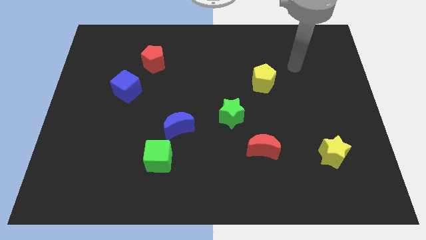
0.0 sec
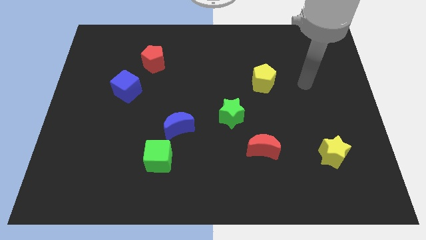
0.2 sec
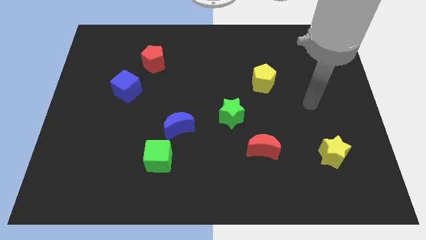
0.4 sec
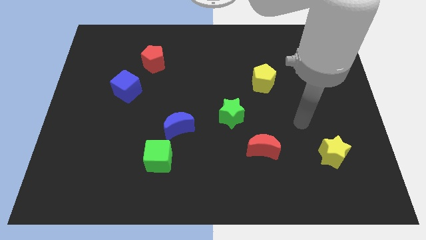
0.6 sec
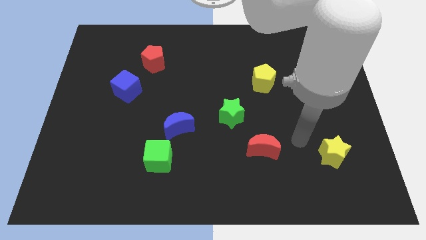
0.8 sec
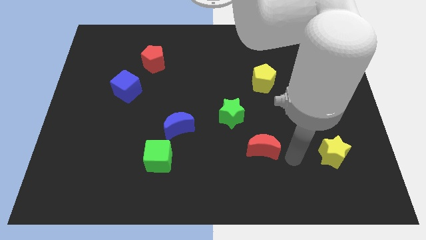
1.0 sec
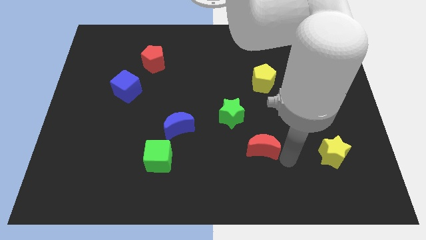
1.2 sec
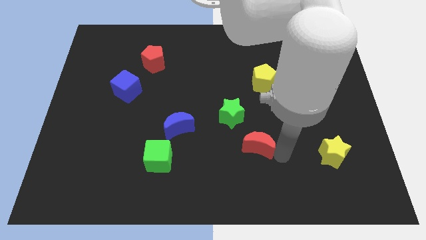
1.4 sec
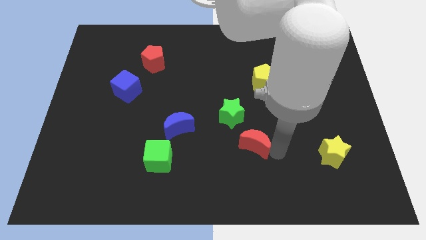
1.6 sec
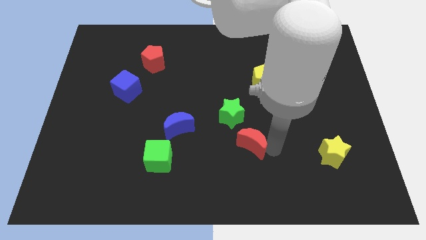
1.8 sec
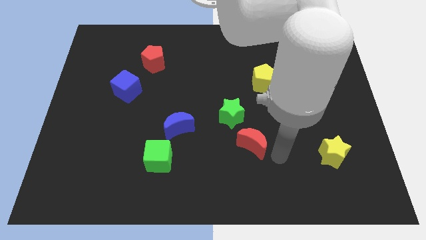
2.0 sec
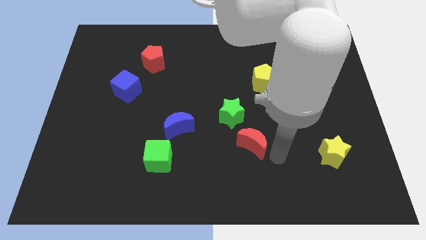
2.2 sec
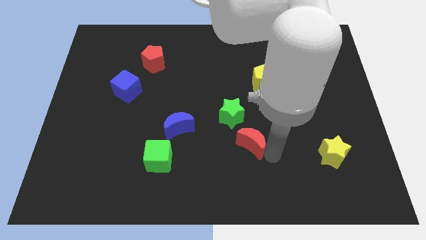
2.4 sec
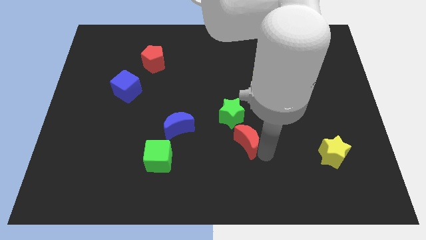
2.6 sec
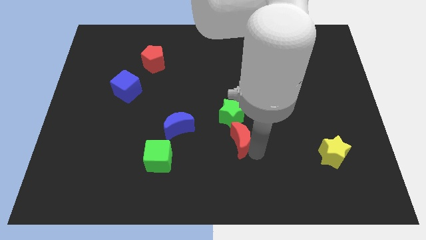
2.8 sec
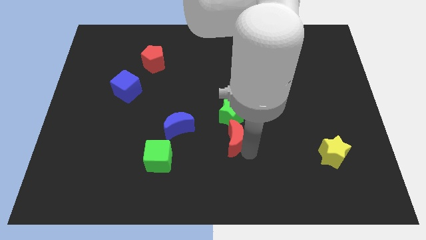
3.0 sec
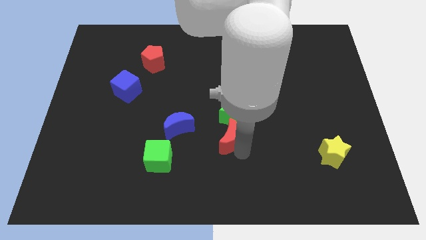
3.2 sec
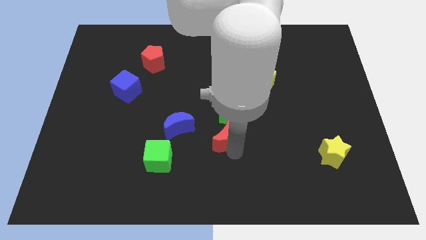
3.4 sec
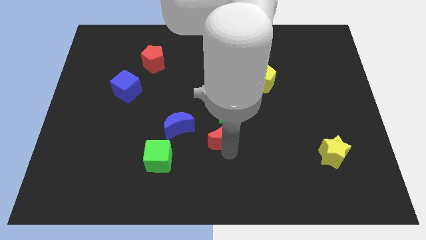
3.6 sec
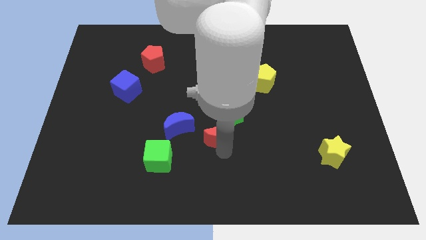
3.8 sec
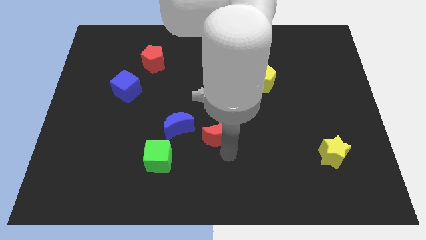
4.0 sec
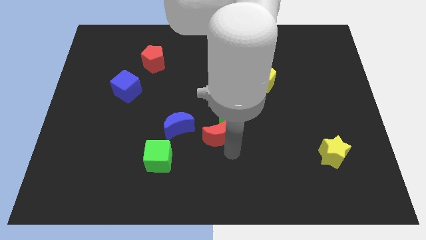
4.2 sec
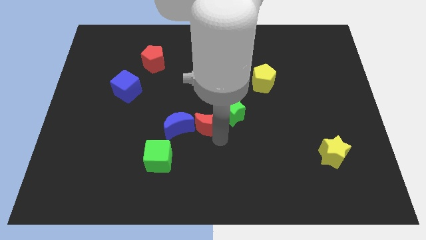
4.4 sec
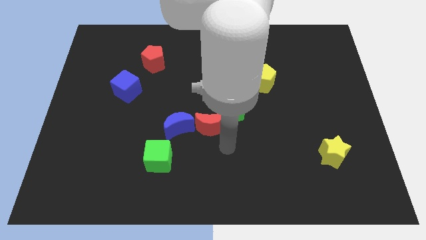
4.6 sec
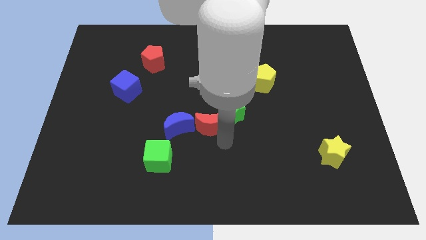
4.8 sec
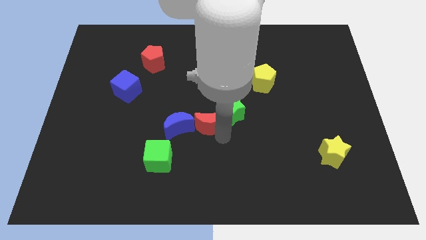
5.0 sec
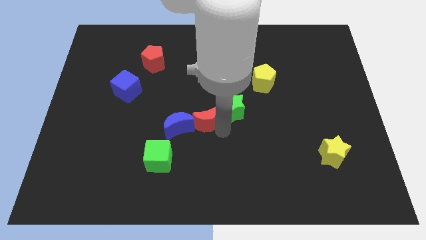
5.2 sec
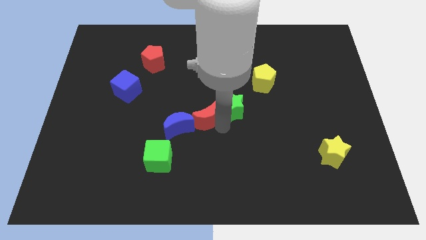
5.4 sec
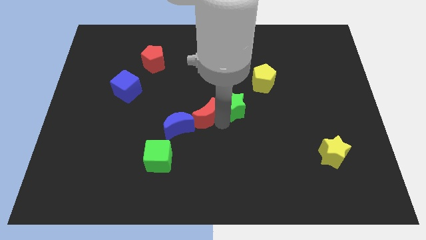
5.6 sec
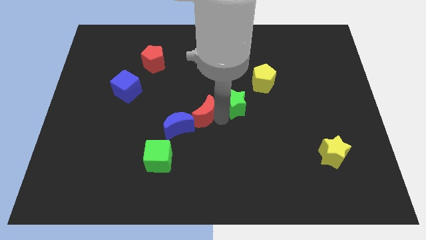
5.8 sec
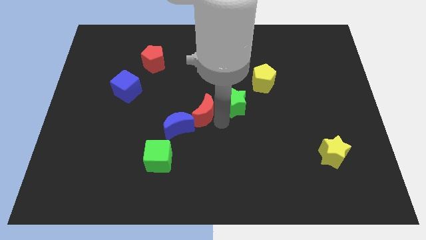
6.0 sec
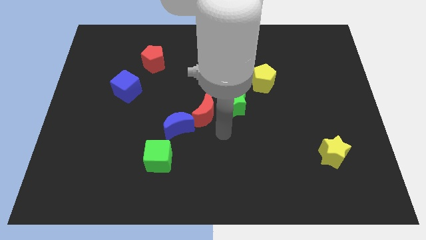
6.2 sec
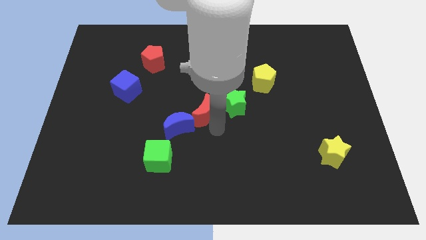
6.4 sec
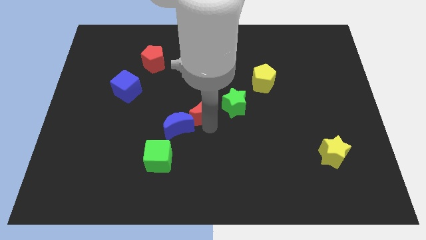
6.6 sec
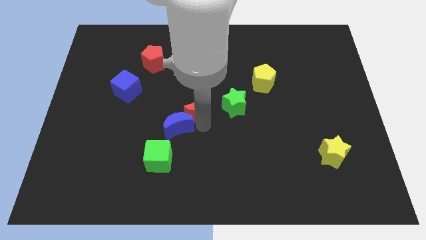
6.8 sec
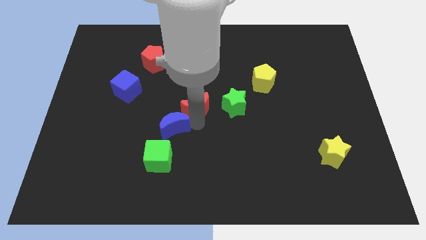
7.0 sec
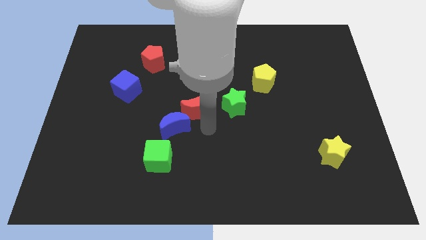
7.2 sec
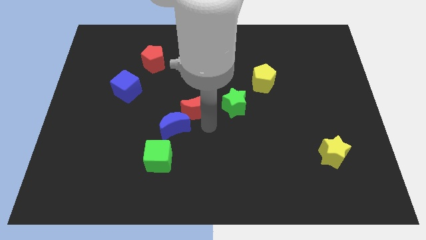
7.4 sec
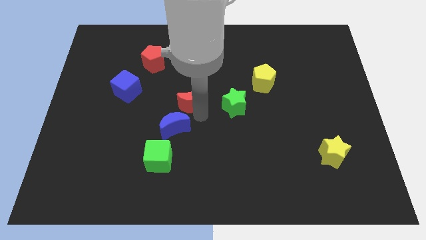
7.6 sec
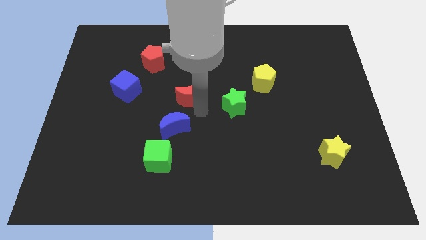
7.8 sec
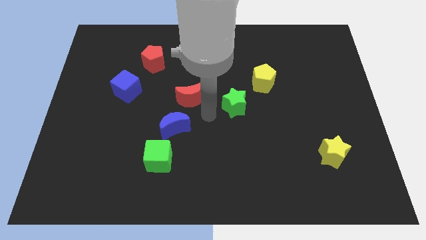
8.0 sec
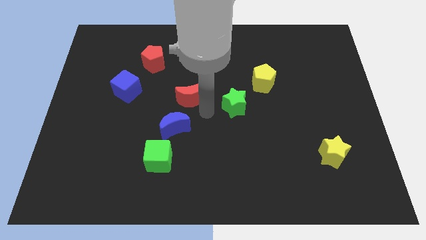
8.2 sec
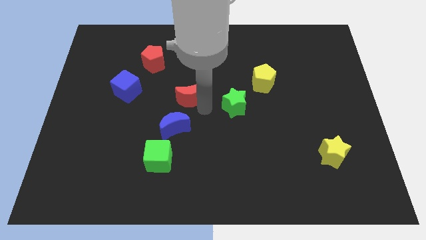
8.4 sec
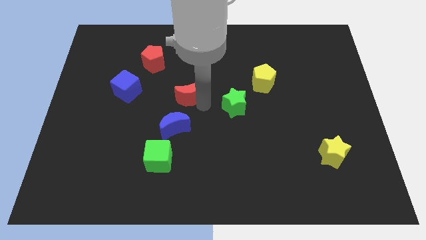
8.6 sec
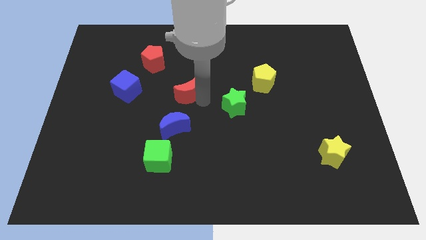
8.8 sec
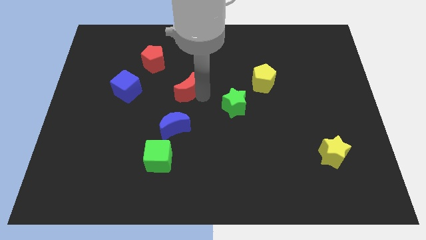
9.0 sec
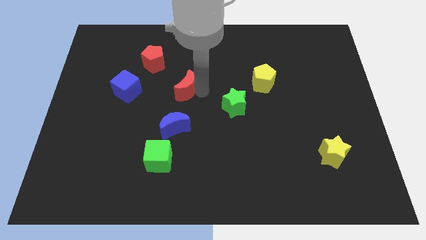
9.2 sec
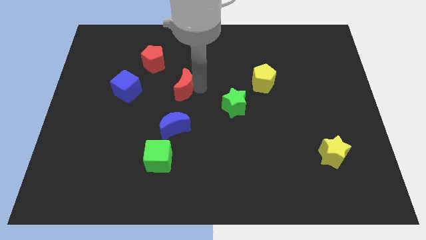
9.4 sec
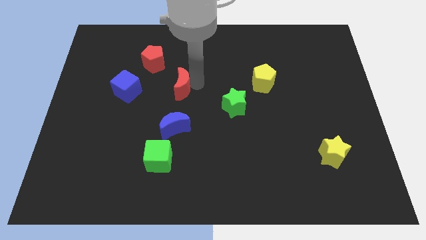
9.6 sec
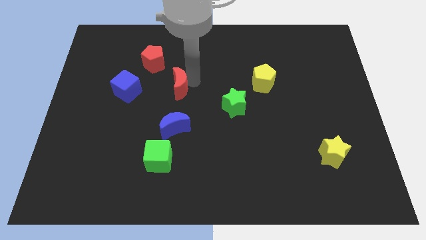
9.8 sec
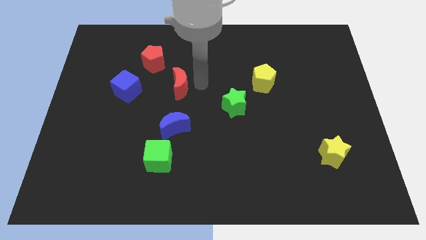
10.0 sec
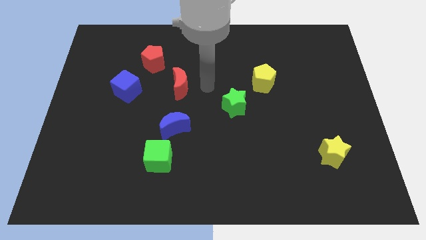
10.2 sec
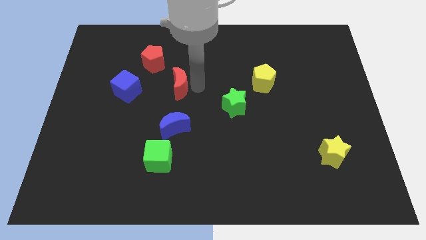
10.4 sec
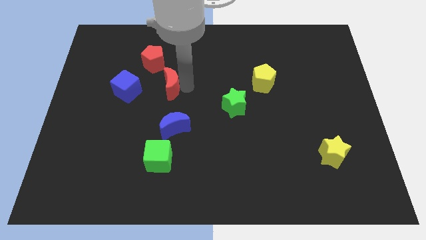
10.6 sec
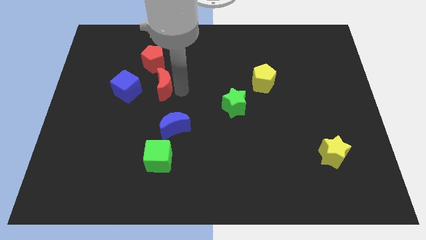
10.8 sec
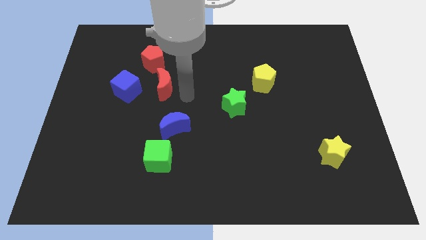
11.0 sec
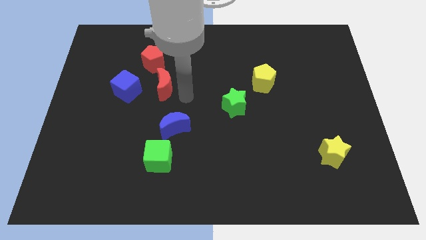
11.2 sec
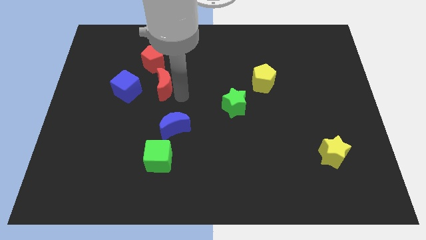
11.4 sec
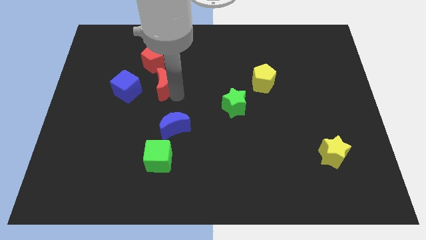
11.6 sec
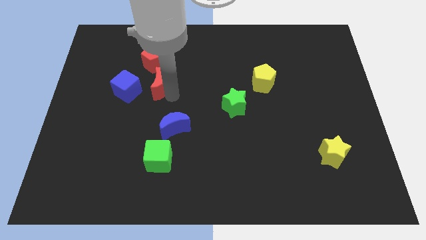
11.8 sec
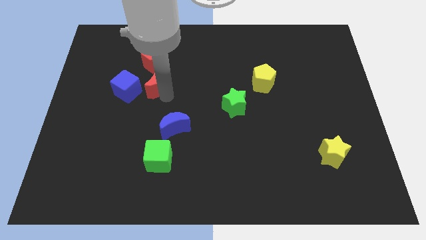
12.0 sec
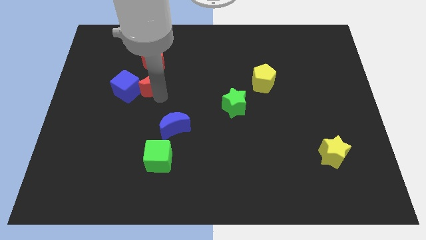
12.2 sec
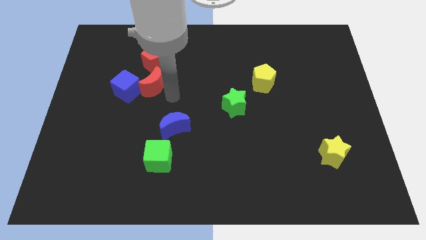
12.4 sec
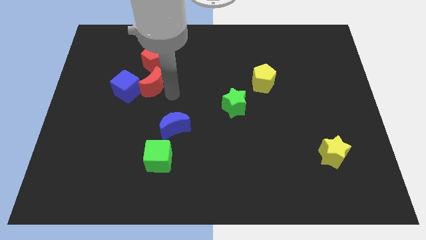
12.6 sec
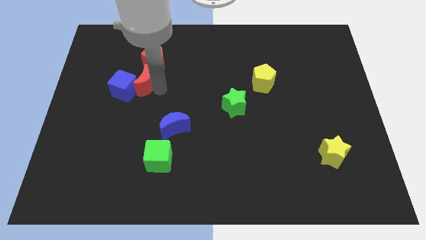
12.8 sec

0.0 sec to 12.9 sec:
put the red moon to the bottom left of the red pentagon

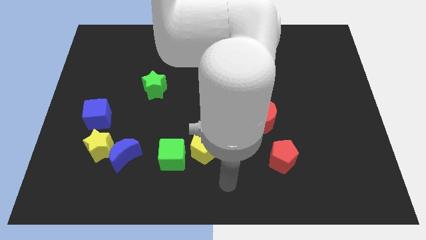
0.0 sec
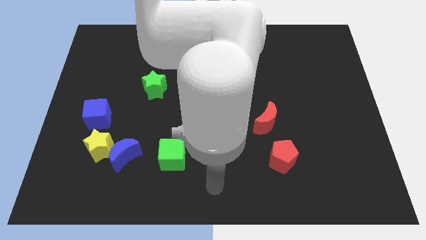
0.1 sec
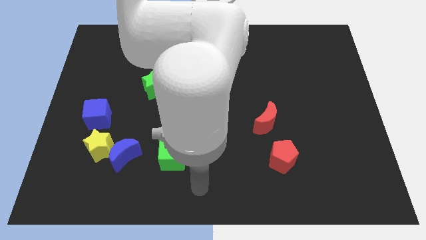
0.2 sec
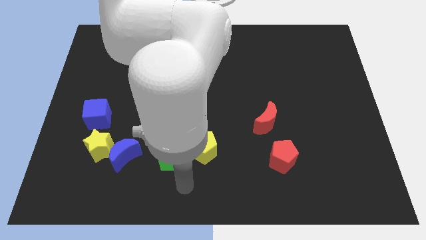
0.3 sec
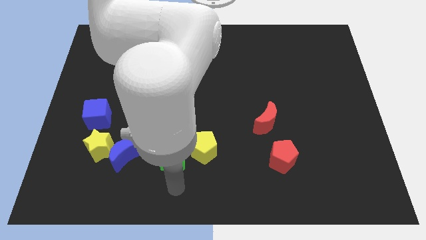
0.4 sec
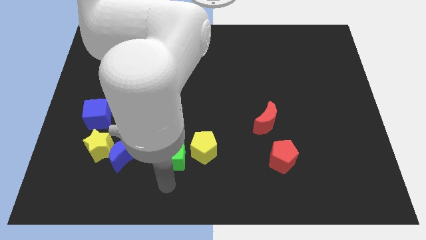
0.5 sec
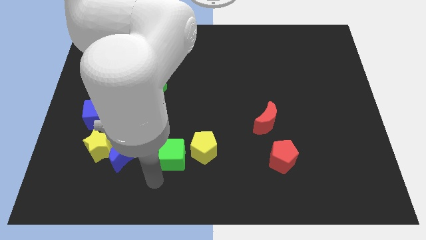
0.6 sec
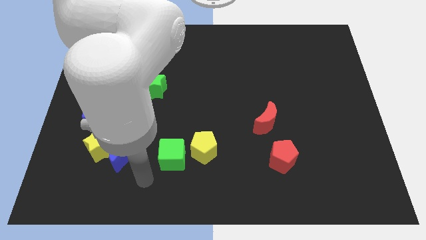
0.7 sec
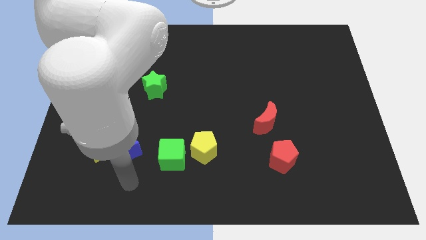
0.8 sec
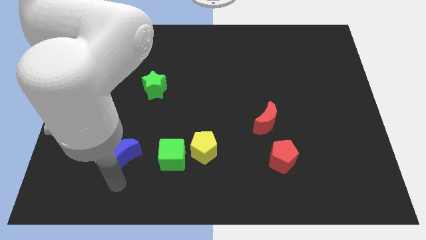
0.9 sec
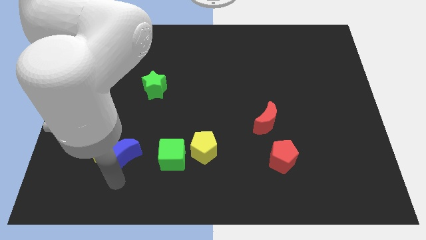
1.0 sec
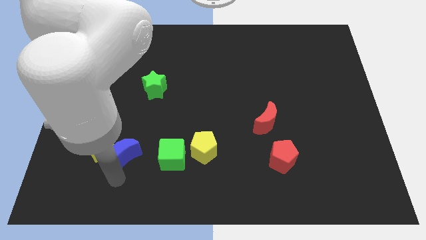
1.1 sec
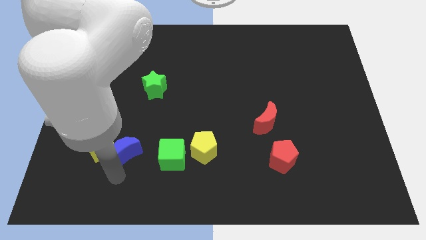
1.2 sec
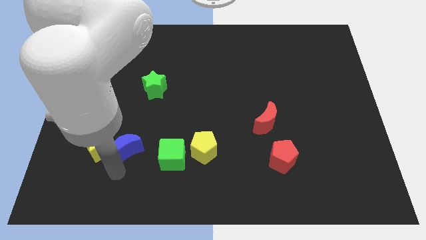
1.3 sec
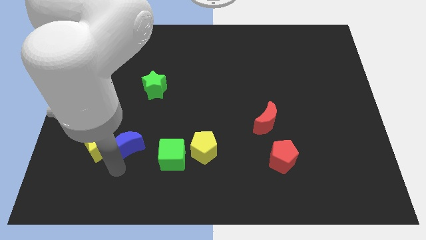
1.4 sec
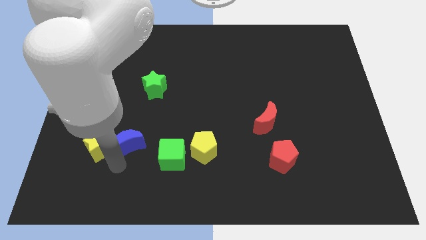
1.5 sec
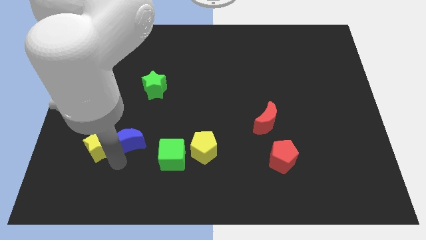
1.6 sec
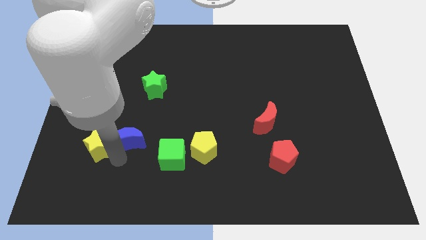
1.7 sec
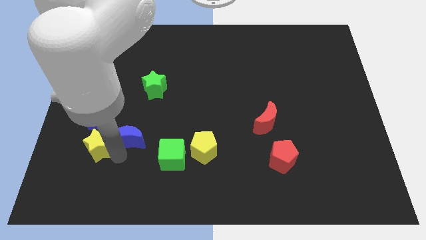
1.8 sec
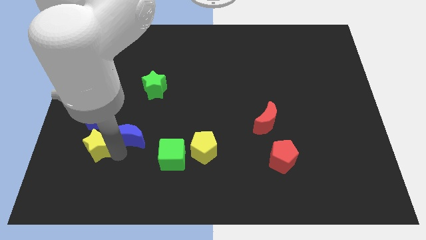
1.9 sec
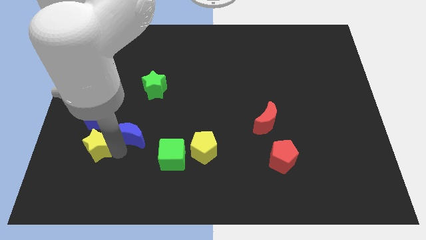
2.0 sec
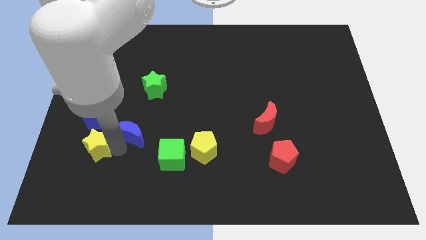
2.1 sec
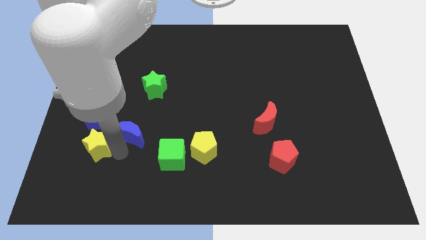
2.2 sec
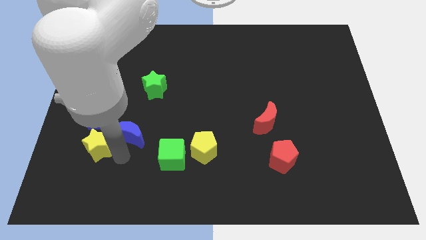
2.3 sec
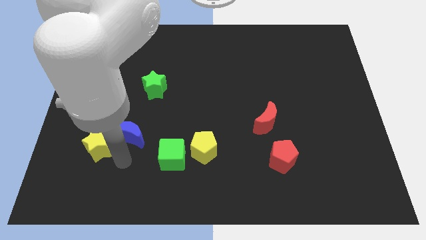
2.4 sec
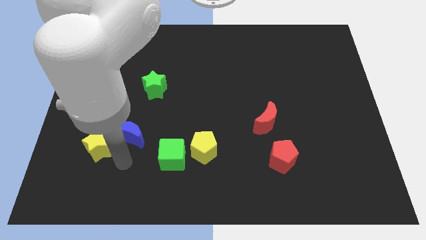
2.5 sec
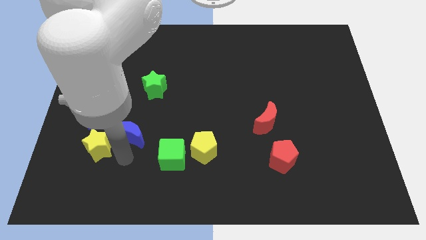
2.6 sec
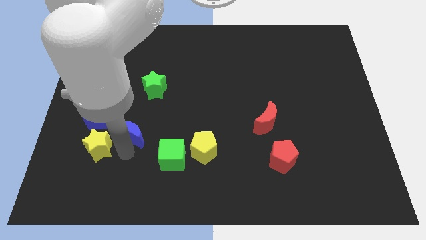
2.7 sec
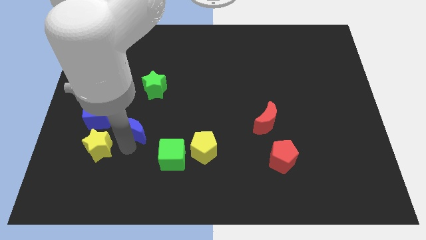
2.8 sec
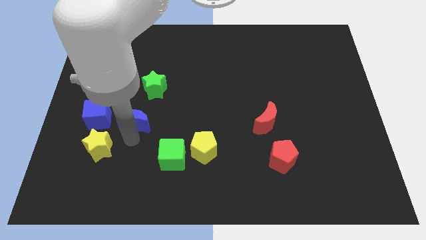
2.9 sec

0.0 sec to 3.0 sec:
put the blue moon to the bottom left of the green star
